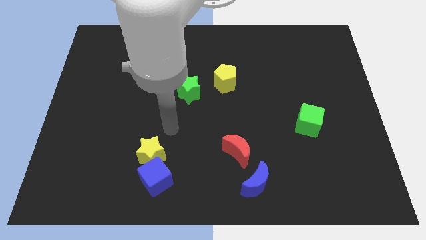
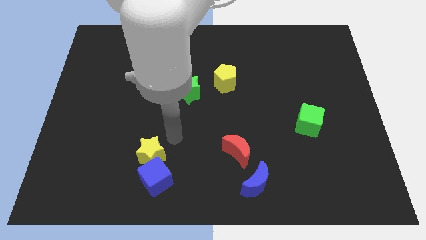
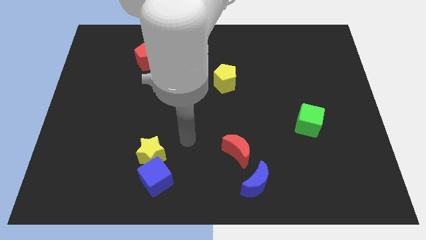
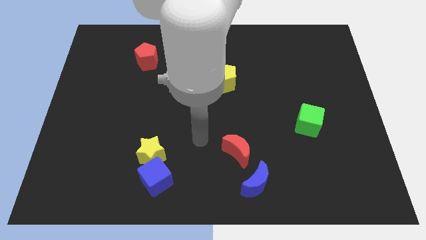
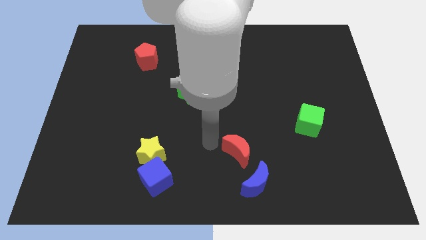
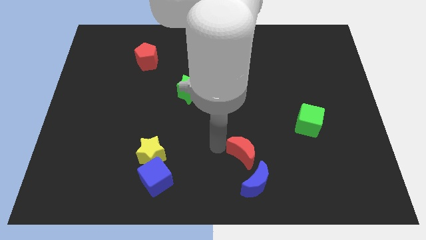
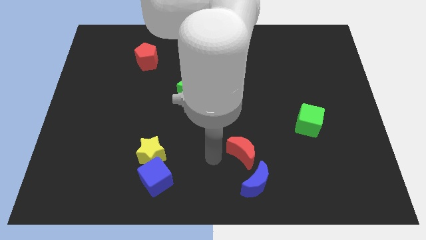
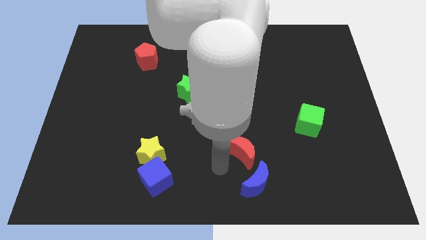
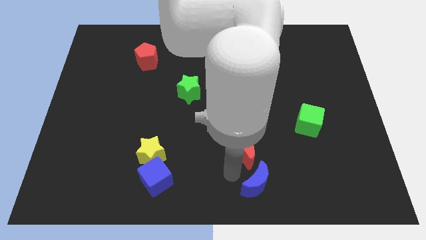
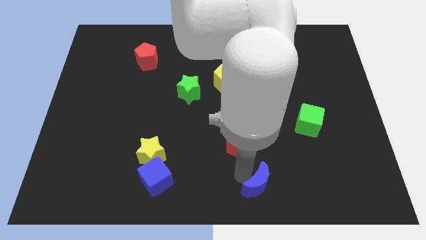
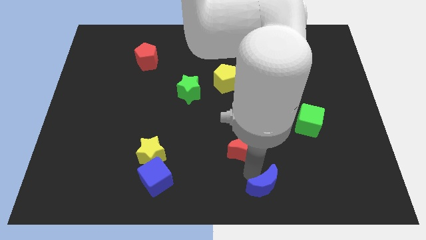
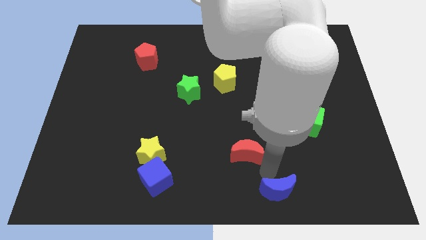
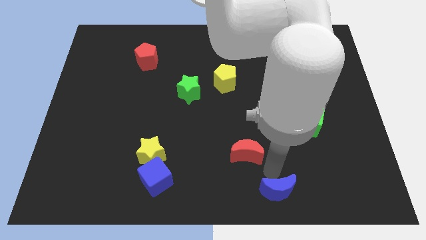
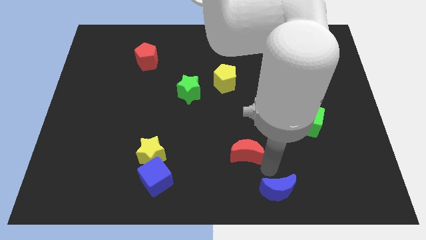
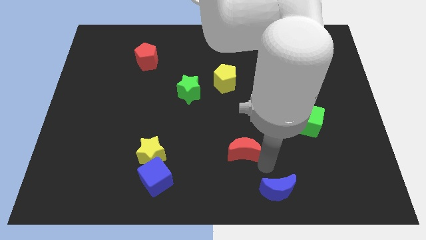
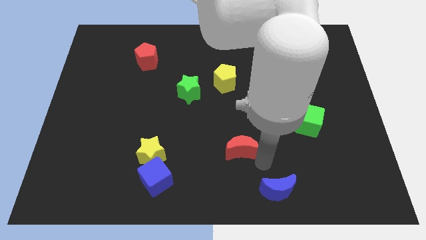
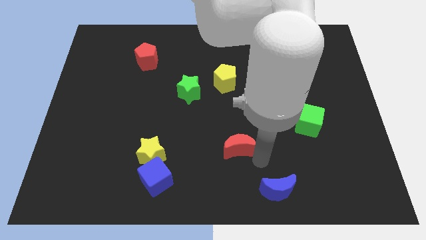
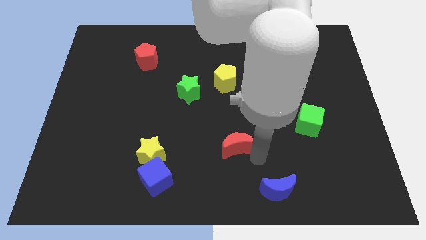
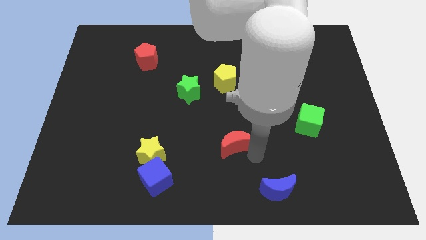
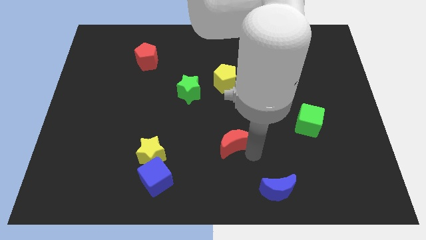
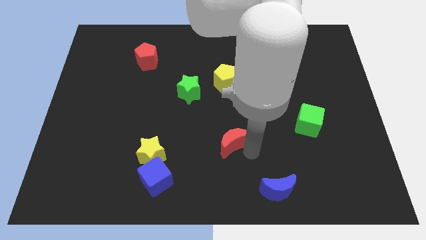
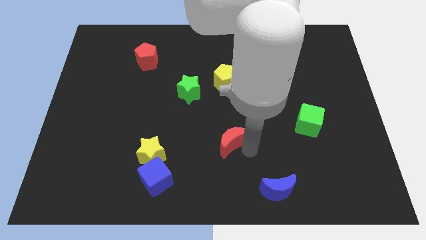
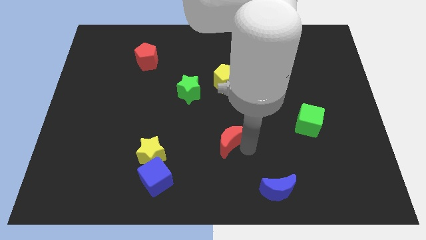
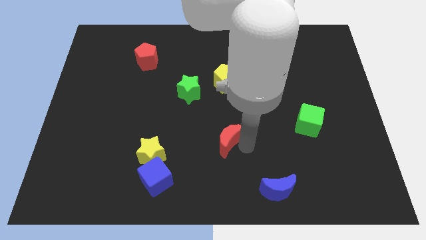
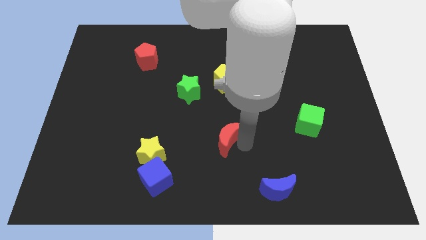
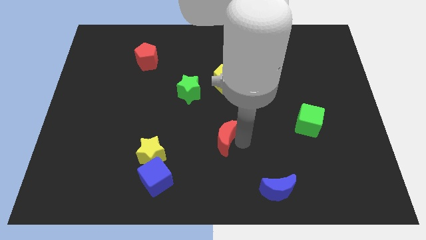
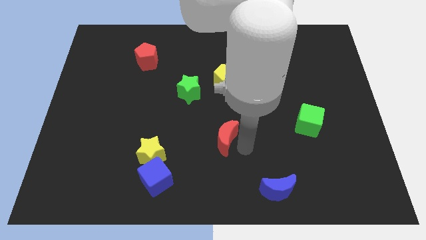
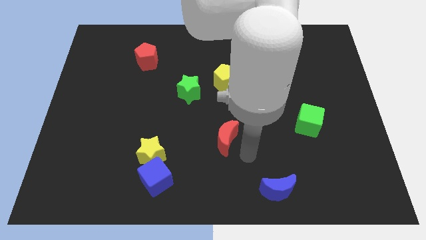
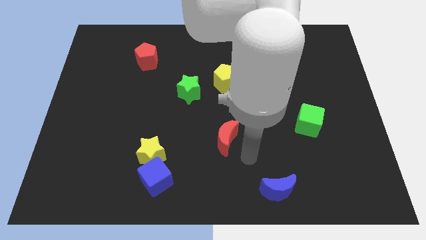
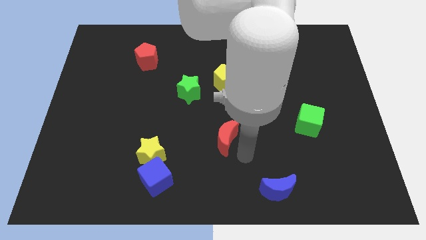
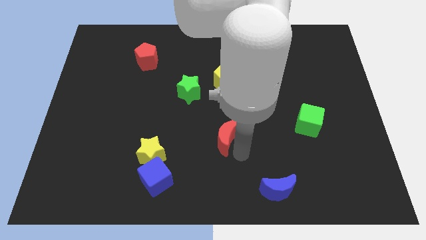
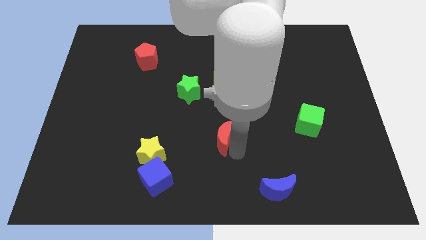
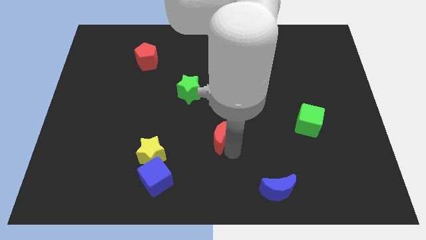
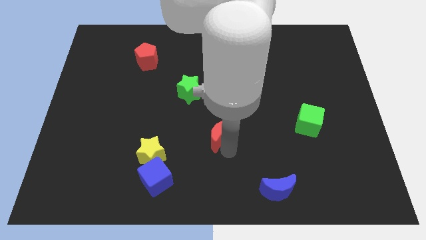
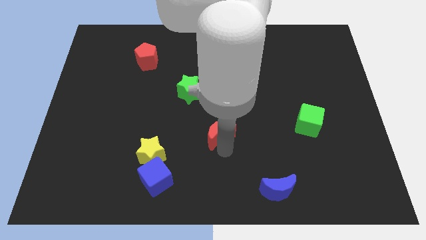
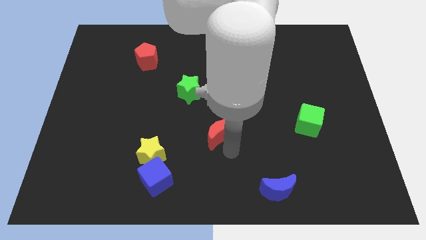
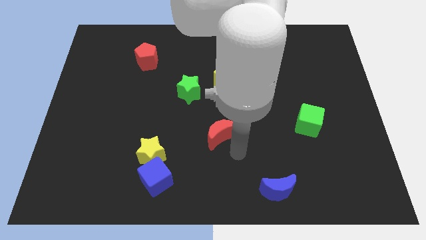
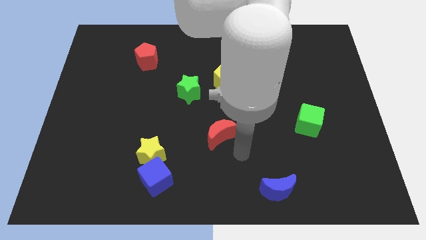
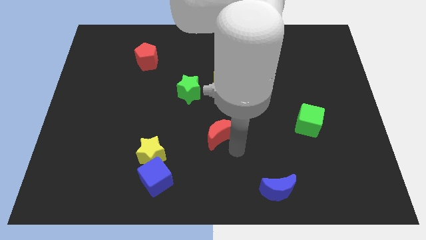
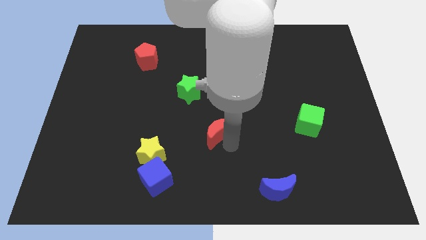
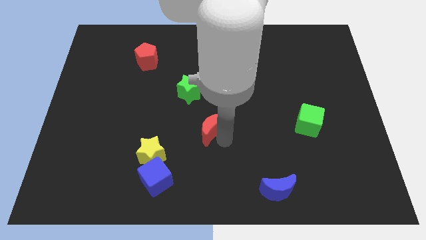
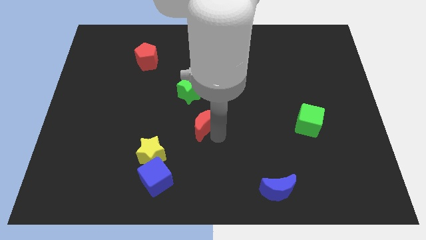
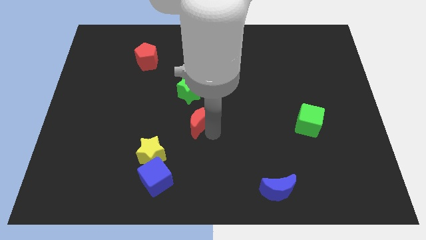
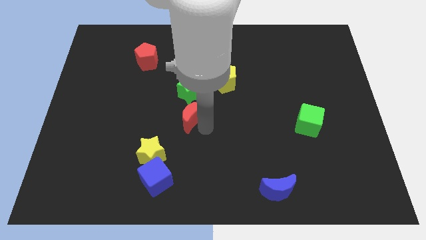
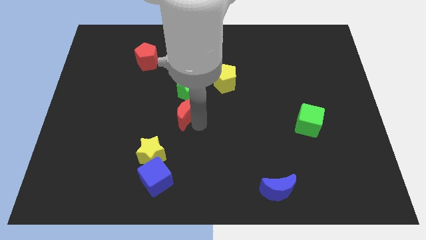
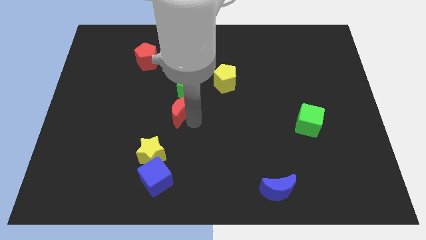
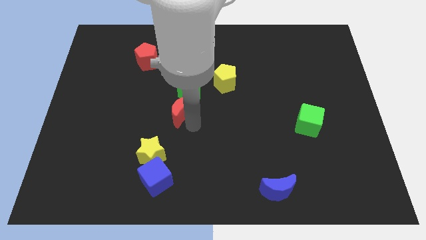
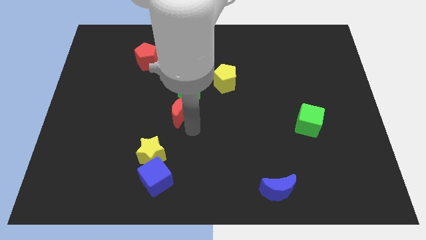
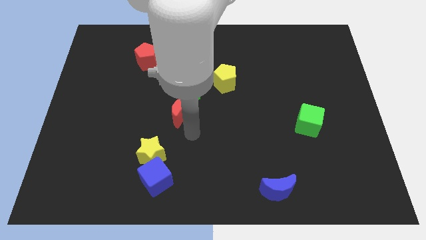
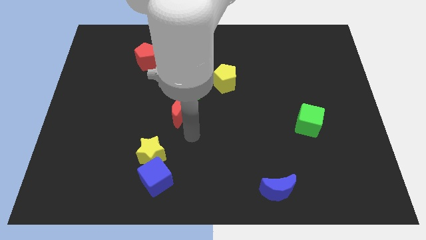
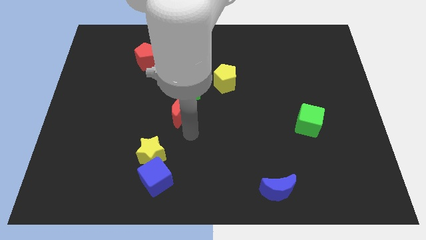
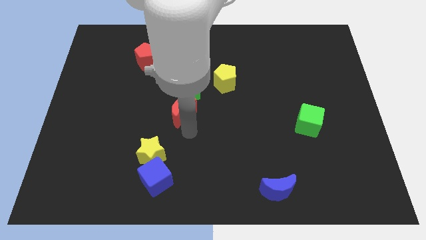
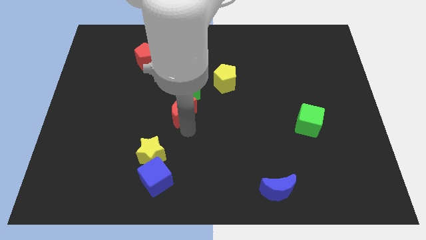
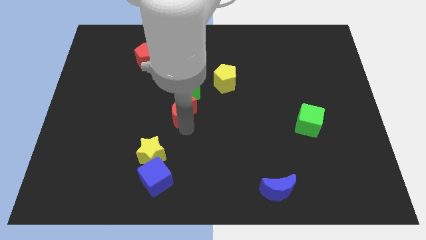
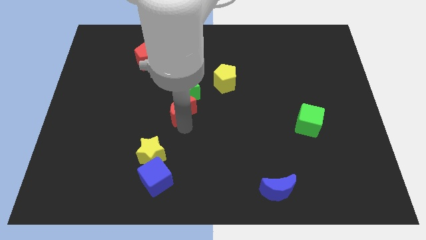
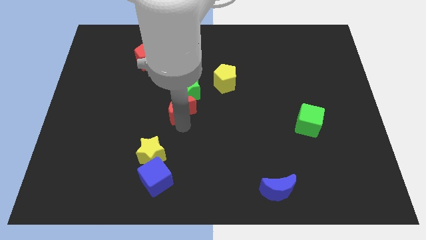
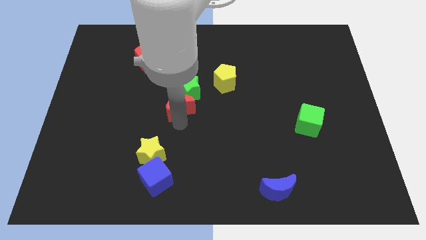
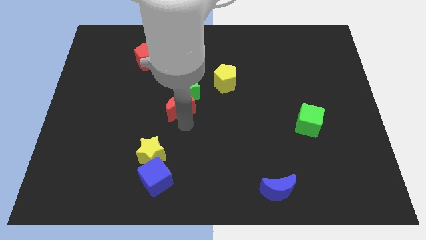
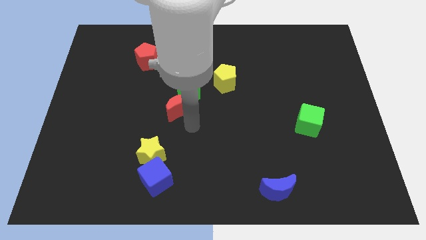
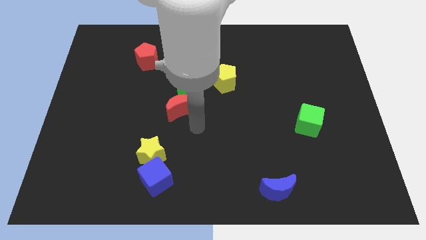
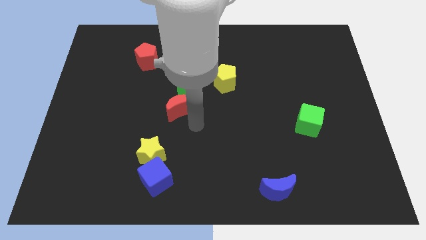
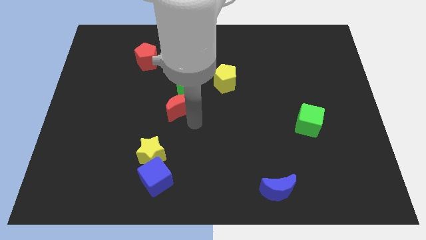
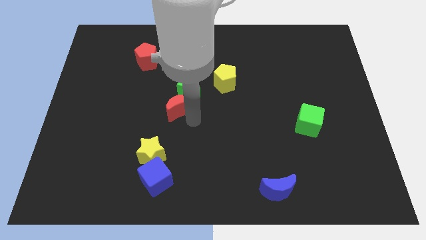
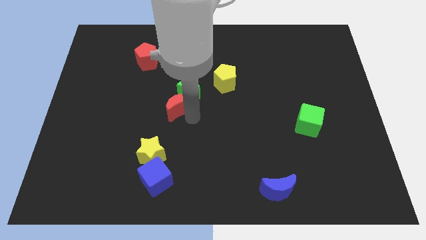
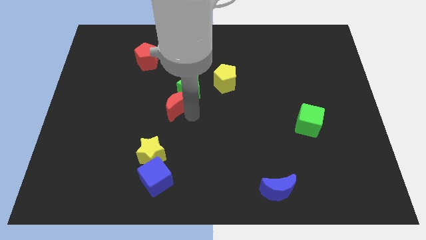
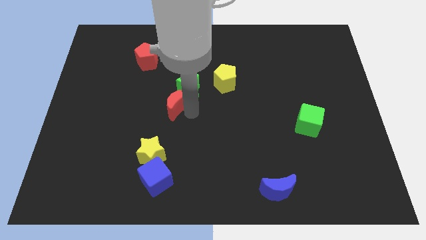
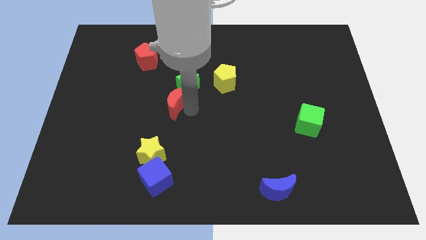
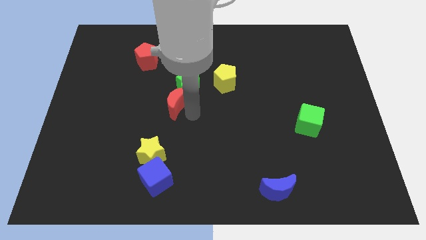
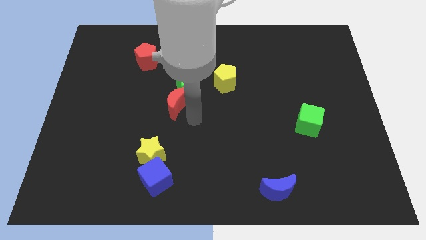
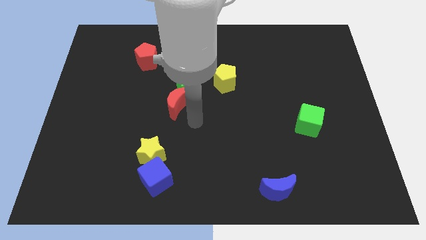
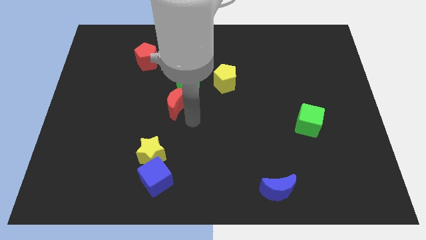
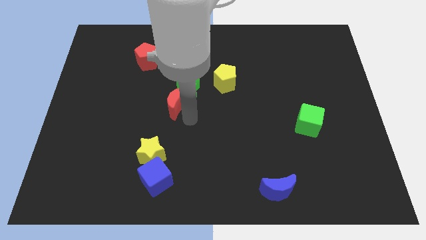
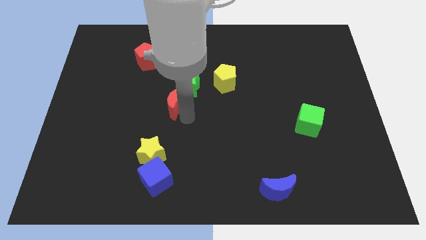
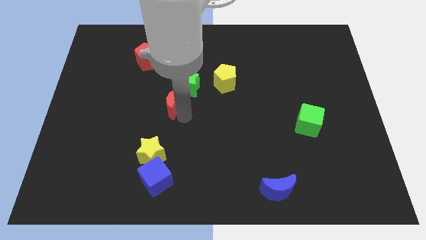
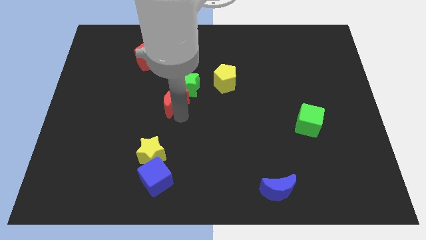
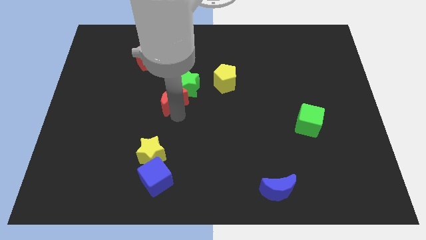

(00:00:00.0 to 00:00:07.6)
slide the red moon up and to the left

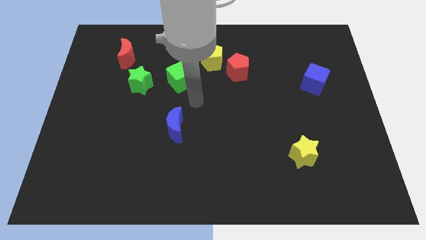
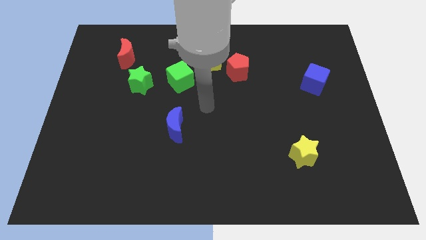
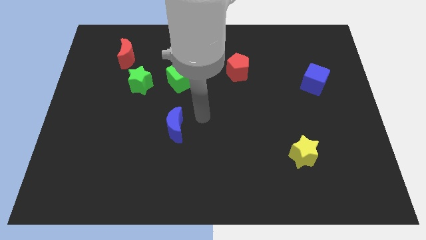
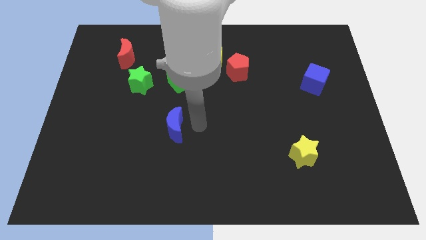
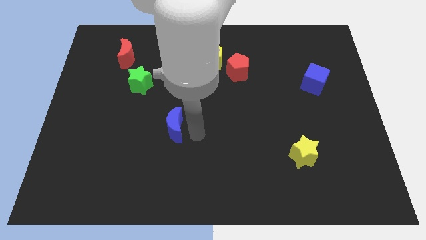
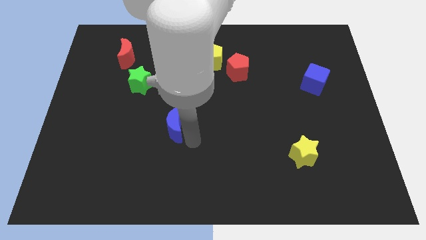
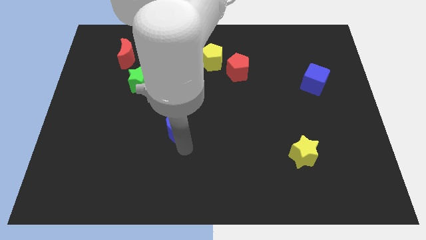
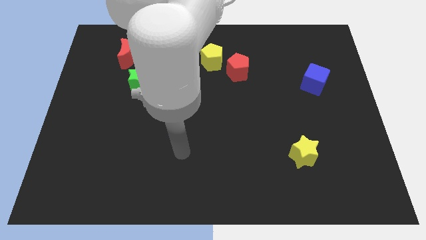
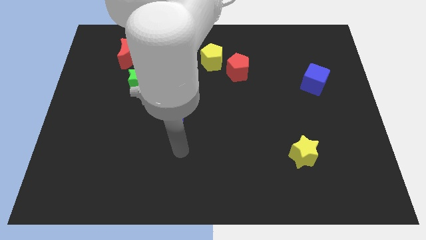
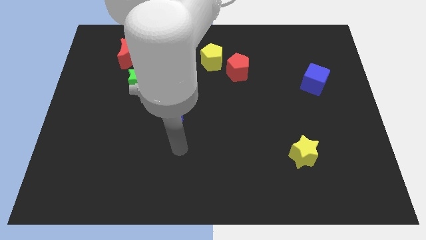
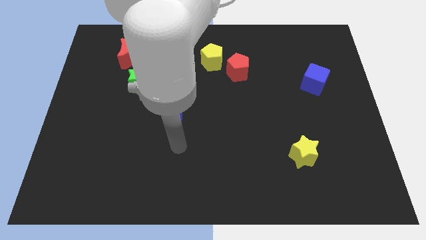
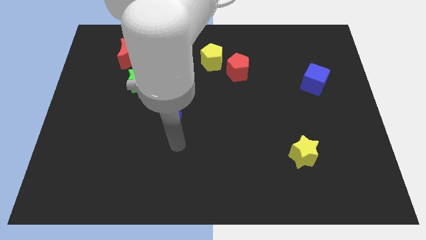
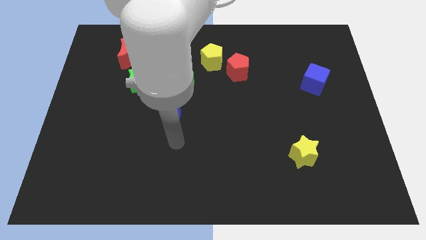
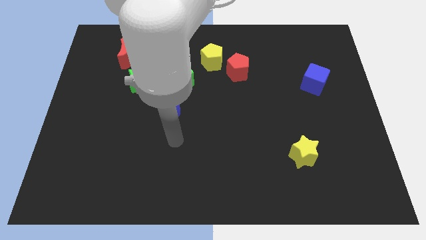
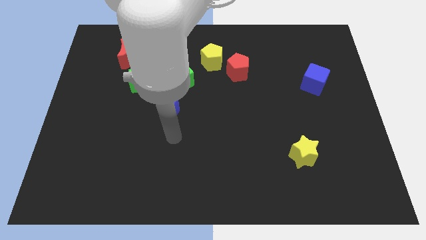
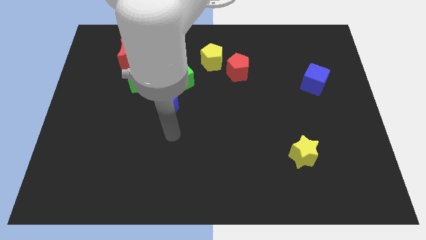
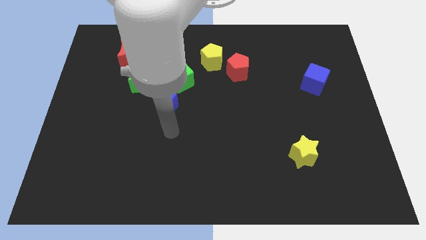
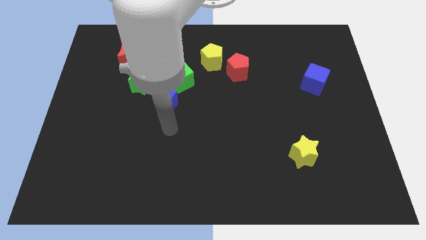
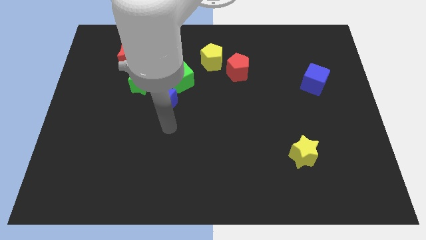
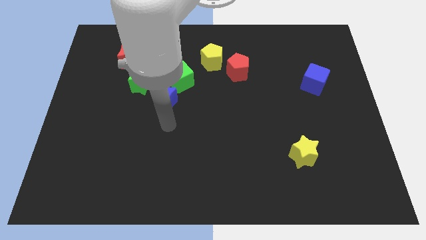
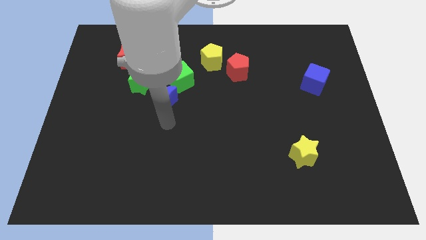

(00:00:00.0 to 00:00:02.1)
push the blue moon a little bit upwards
